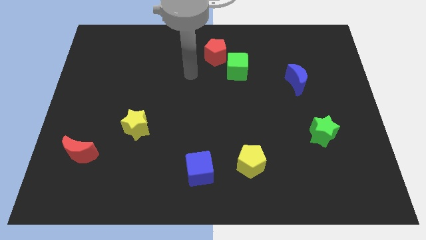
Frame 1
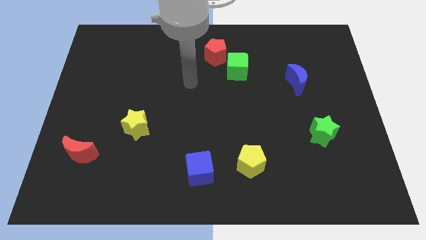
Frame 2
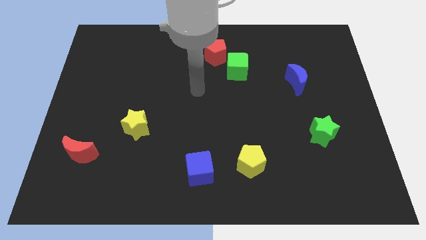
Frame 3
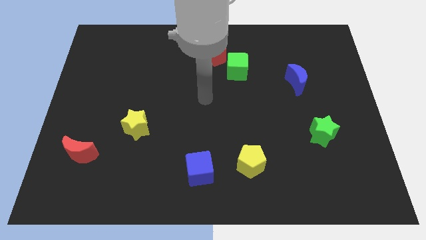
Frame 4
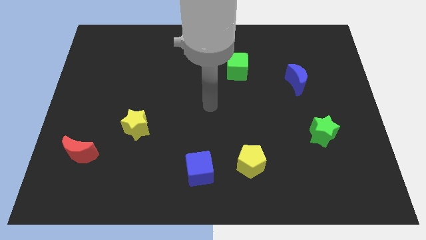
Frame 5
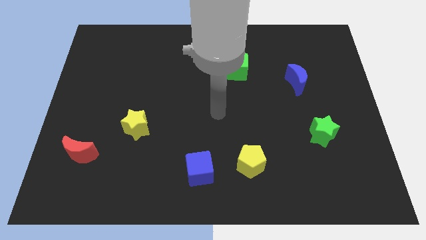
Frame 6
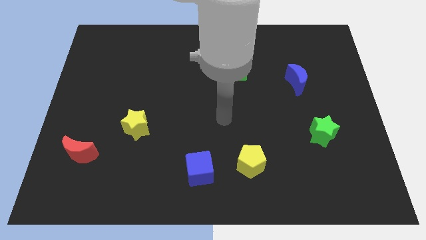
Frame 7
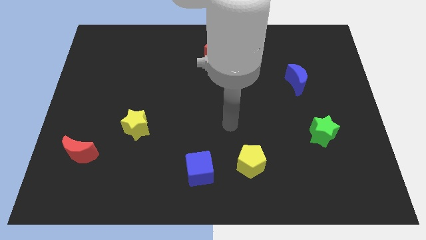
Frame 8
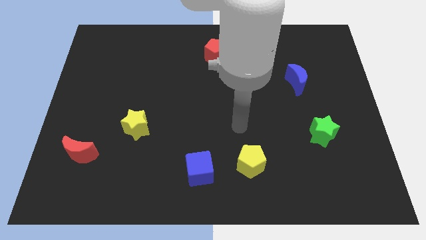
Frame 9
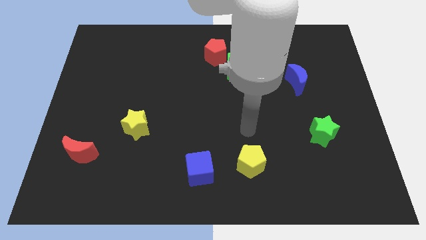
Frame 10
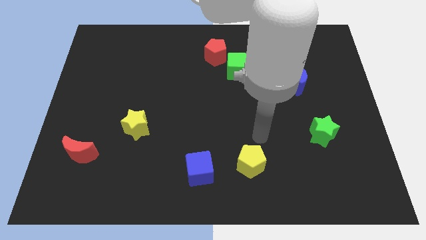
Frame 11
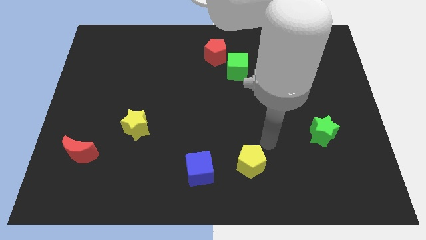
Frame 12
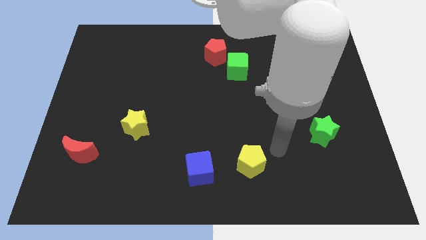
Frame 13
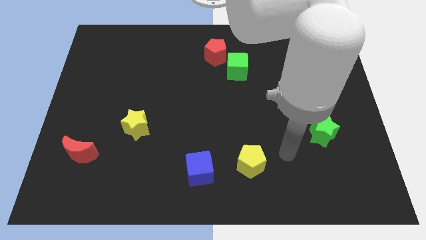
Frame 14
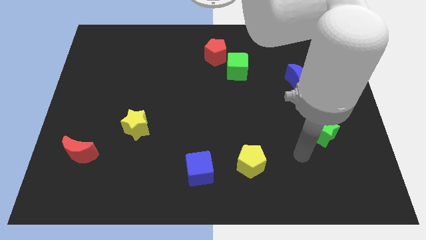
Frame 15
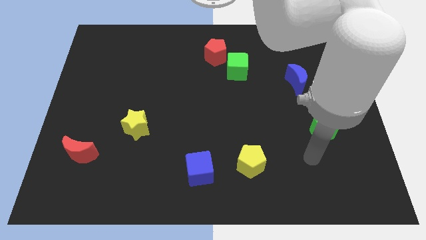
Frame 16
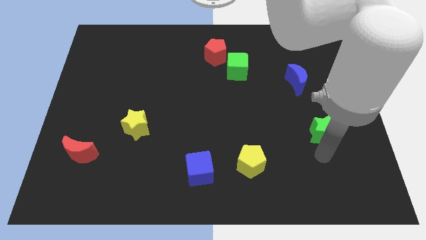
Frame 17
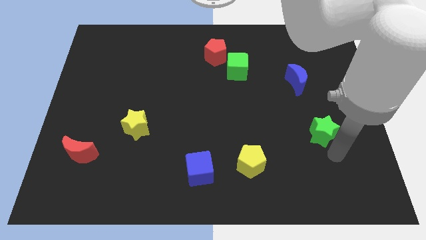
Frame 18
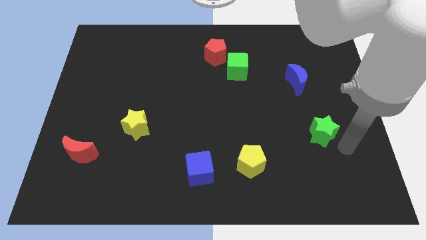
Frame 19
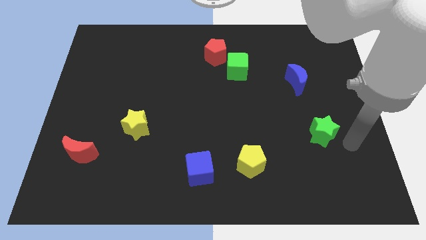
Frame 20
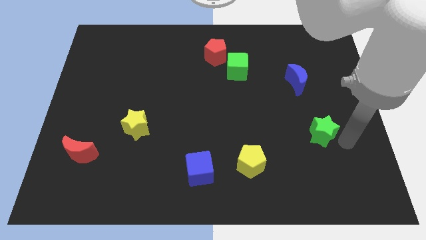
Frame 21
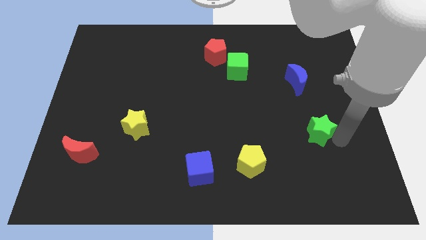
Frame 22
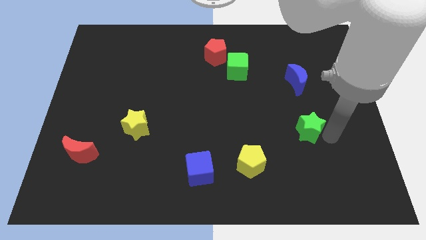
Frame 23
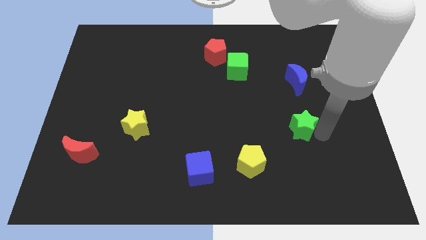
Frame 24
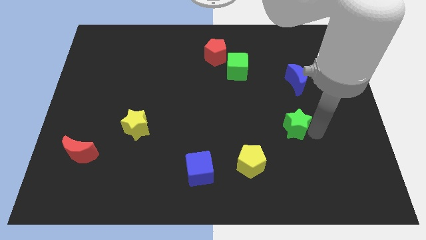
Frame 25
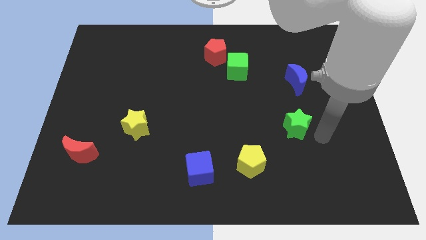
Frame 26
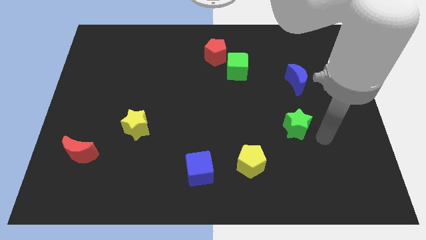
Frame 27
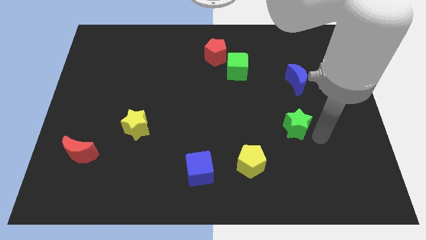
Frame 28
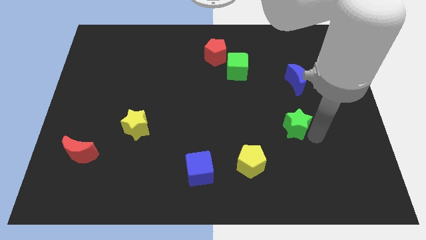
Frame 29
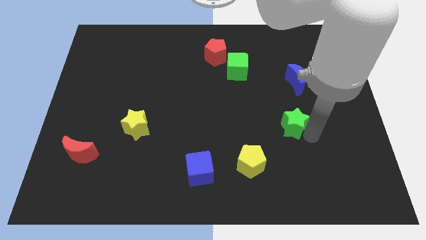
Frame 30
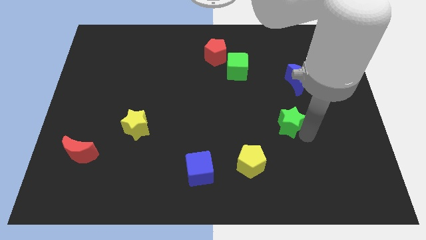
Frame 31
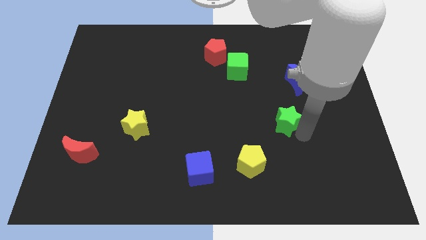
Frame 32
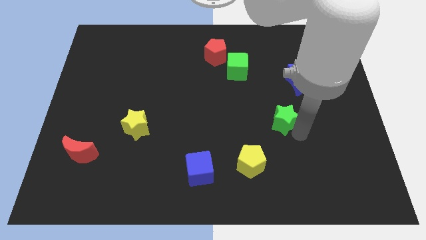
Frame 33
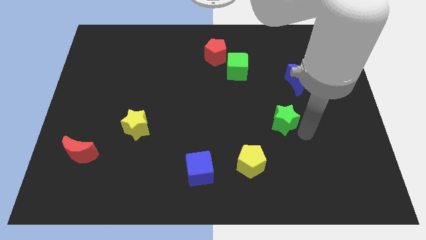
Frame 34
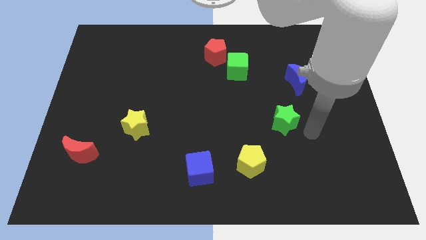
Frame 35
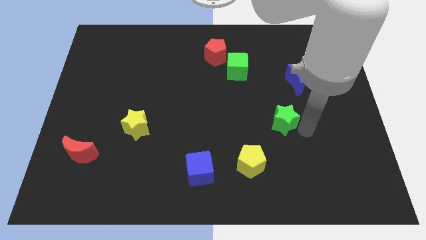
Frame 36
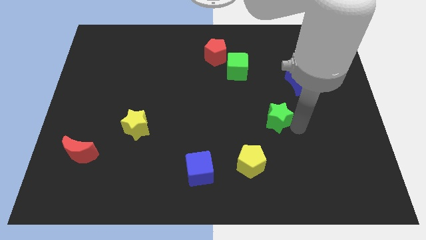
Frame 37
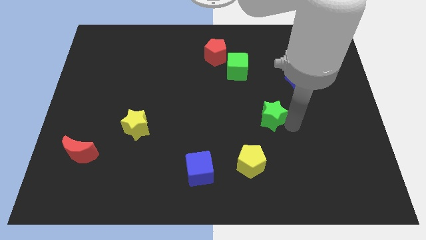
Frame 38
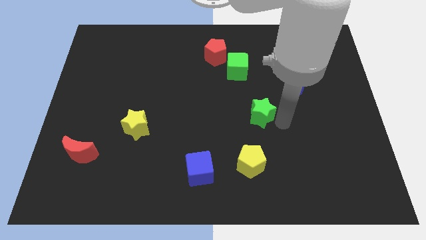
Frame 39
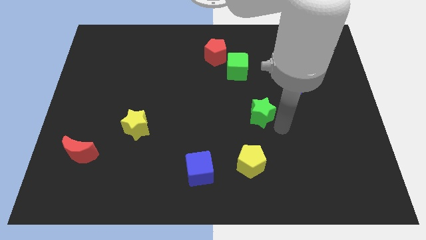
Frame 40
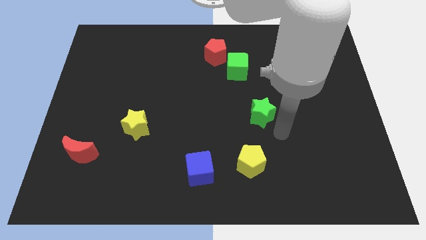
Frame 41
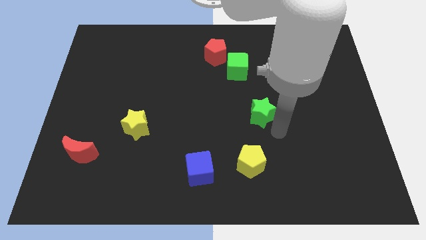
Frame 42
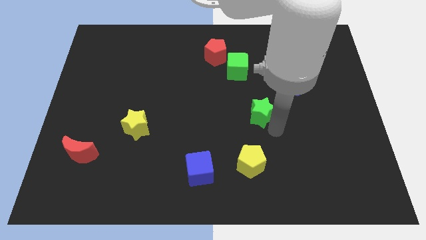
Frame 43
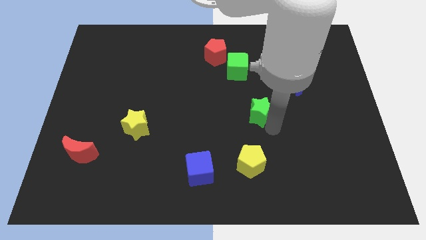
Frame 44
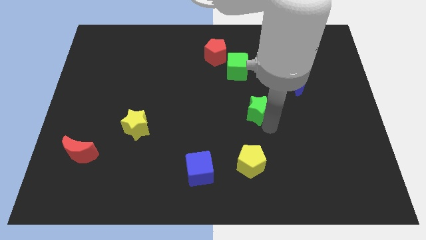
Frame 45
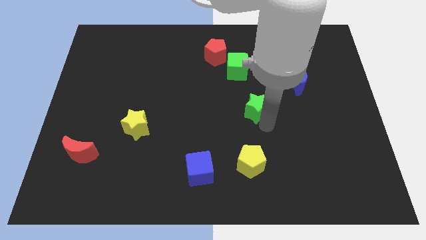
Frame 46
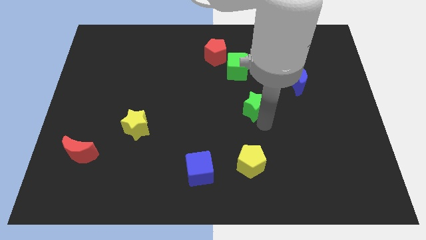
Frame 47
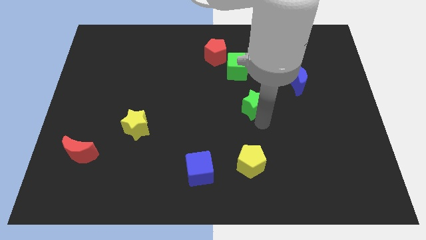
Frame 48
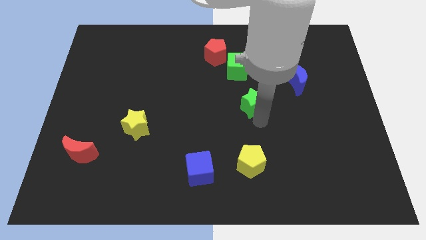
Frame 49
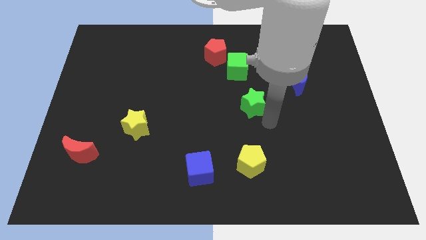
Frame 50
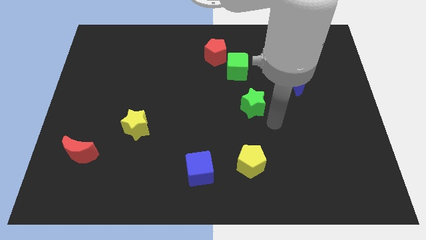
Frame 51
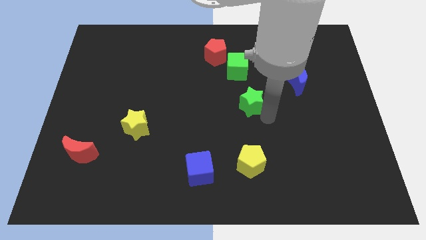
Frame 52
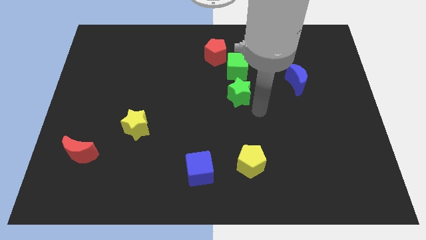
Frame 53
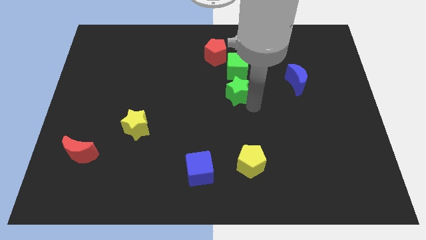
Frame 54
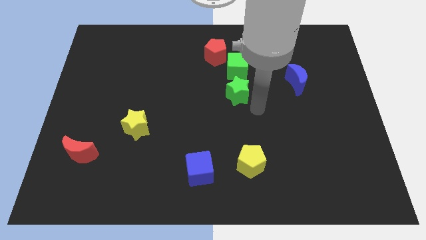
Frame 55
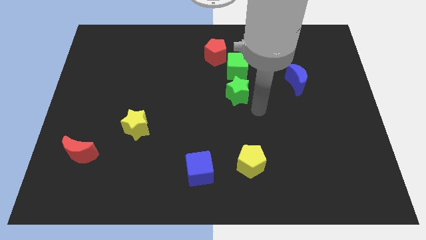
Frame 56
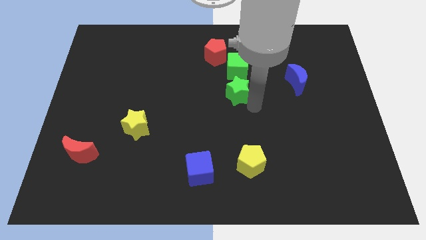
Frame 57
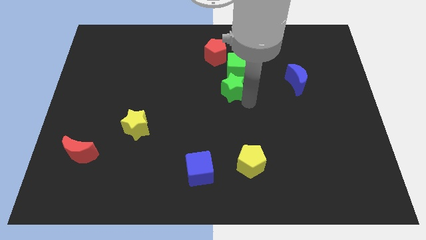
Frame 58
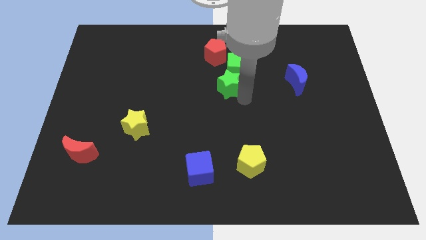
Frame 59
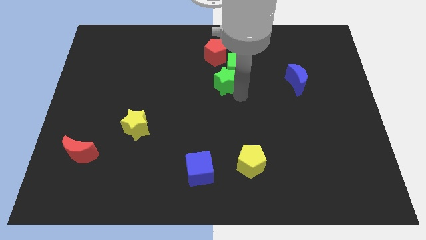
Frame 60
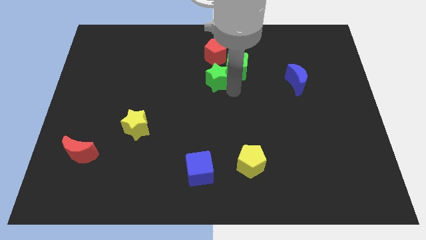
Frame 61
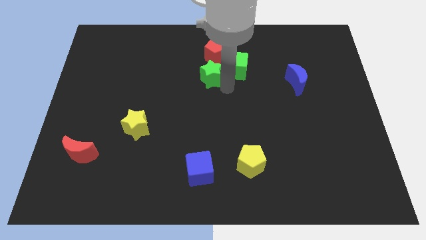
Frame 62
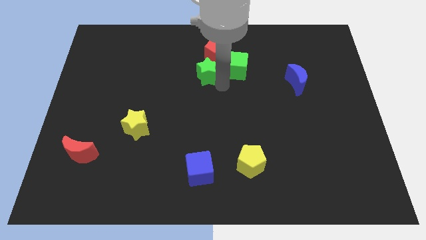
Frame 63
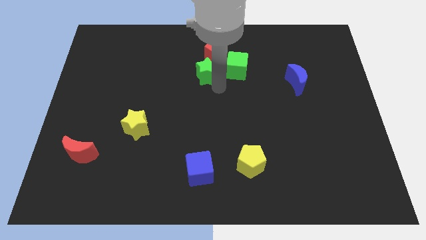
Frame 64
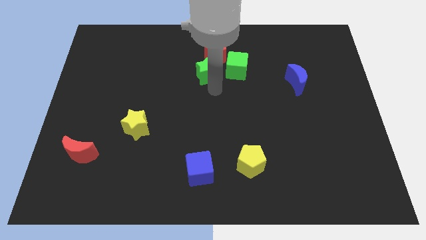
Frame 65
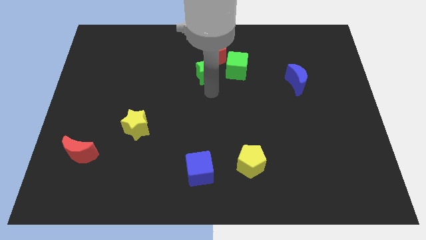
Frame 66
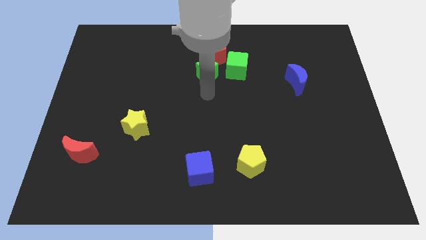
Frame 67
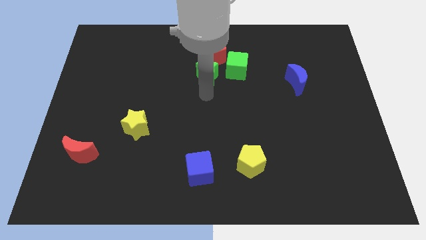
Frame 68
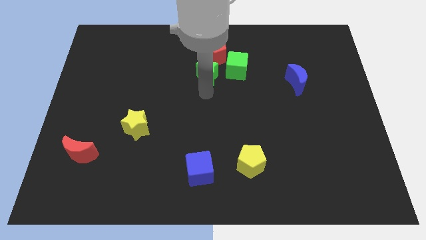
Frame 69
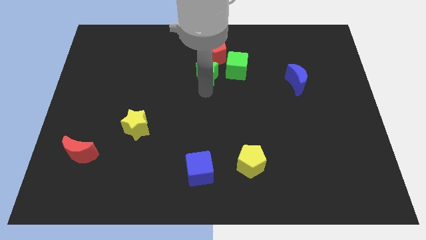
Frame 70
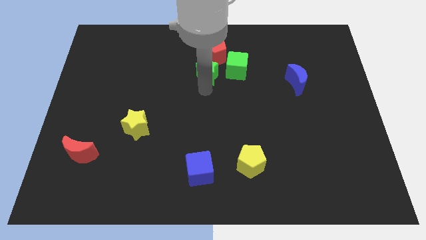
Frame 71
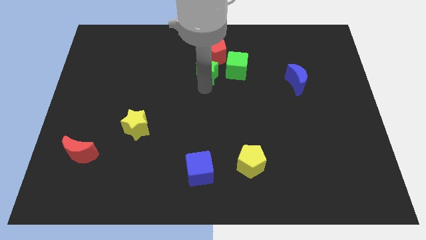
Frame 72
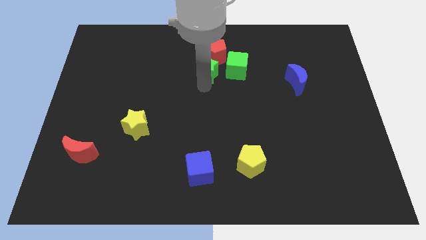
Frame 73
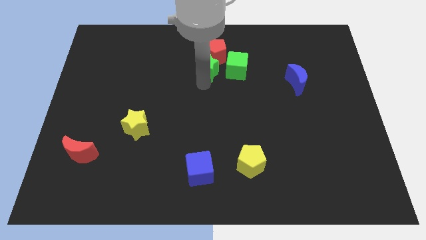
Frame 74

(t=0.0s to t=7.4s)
slide the green star next to the red pentagon
